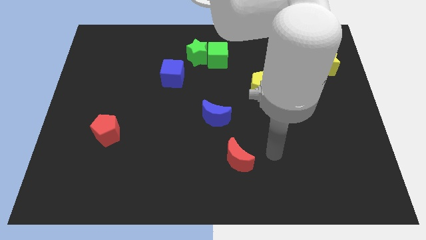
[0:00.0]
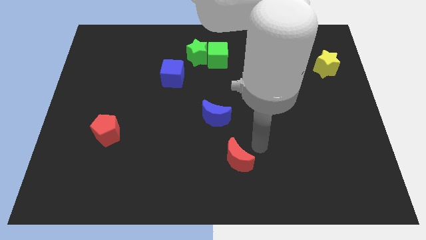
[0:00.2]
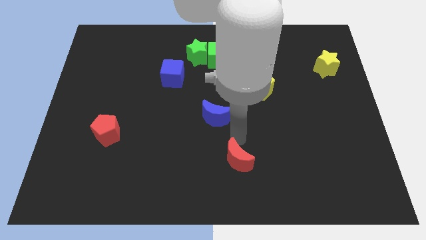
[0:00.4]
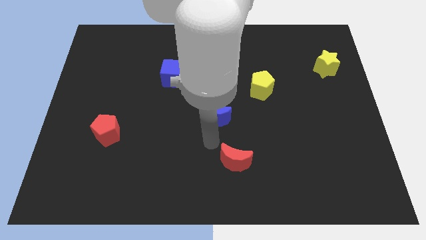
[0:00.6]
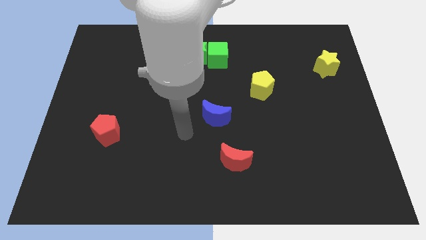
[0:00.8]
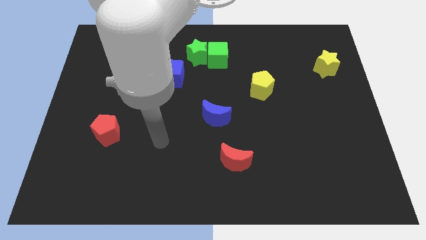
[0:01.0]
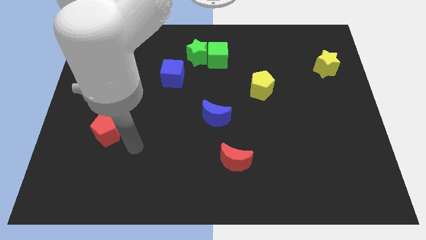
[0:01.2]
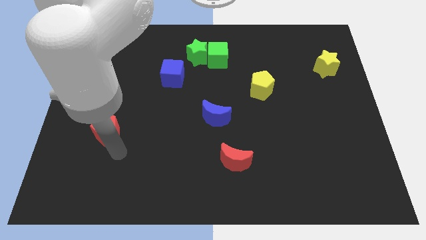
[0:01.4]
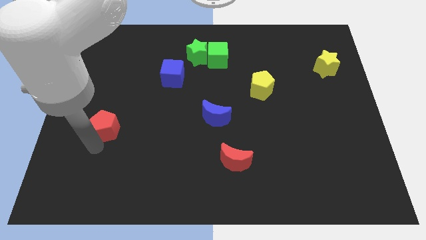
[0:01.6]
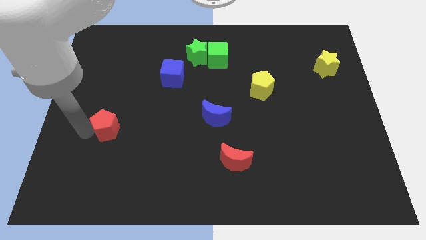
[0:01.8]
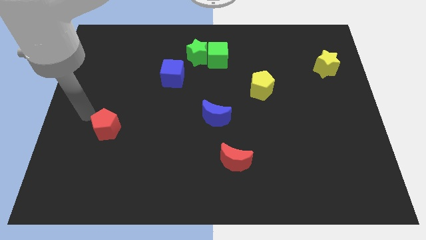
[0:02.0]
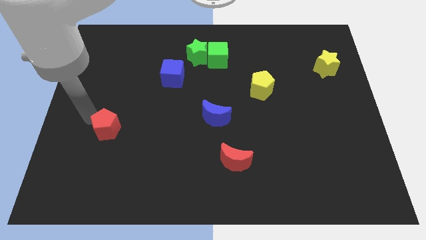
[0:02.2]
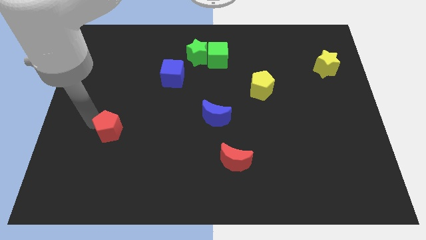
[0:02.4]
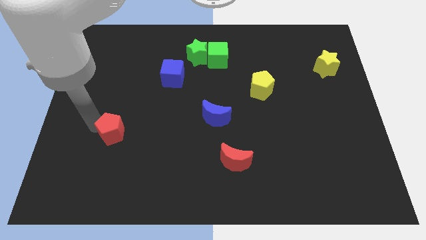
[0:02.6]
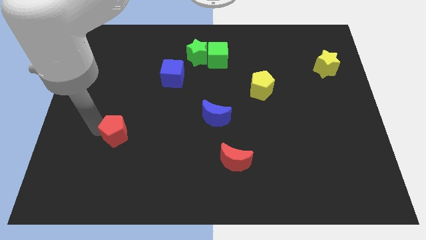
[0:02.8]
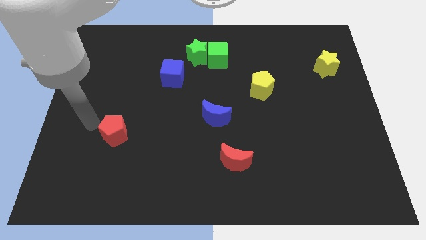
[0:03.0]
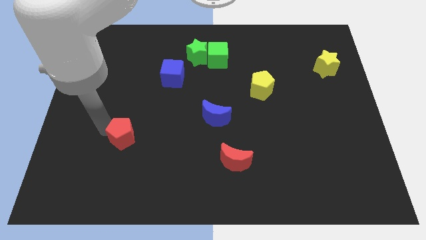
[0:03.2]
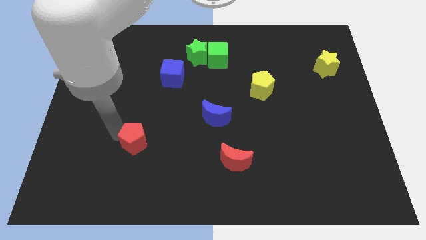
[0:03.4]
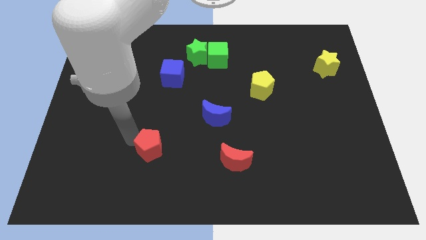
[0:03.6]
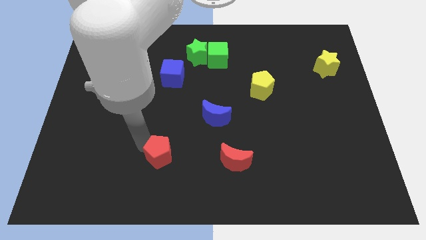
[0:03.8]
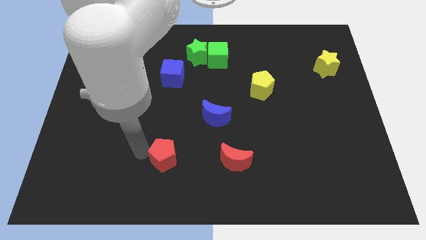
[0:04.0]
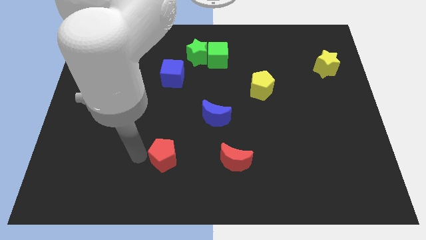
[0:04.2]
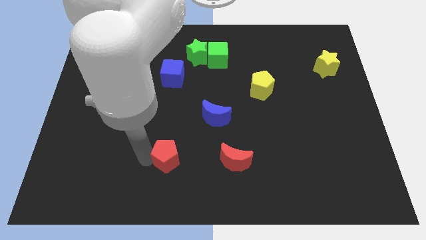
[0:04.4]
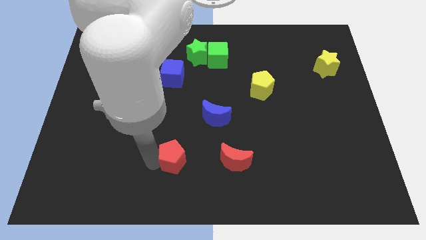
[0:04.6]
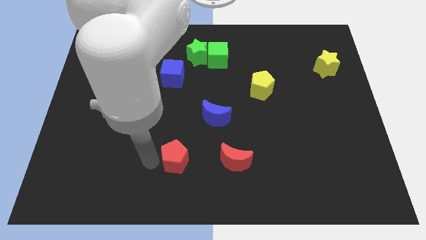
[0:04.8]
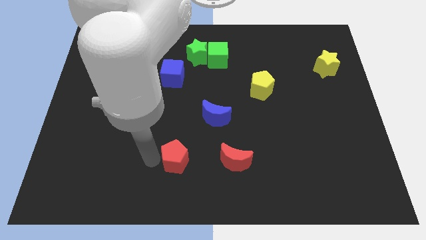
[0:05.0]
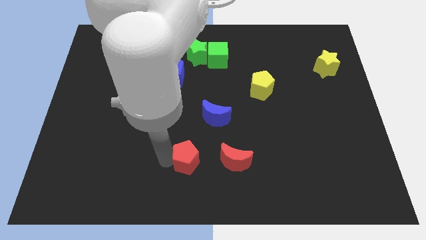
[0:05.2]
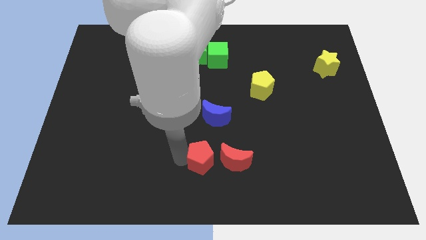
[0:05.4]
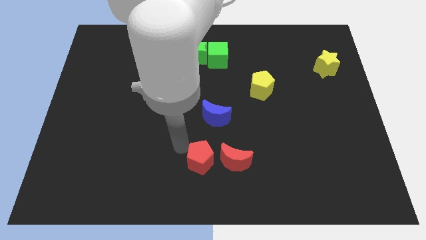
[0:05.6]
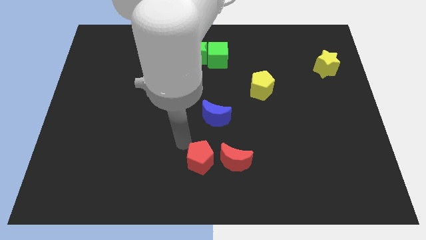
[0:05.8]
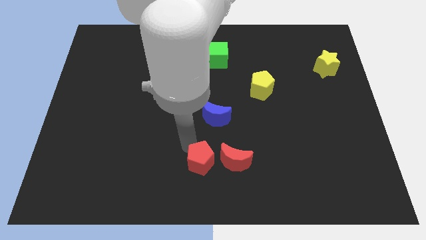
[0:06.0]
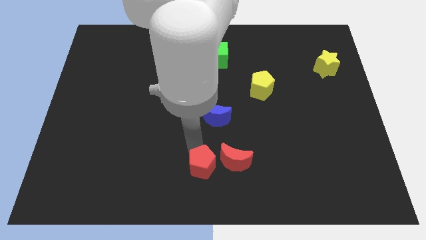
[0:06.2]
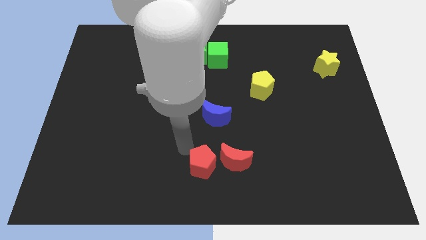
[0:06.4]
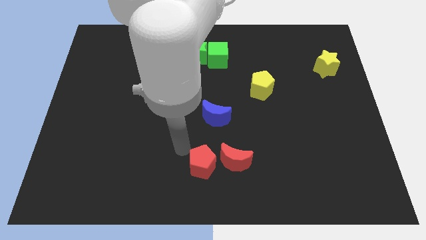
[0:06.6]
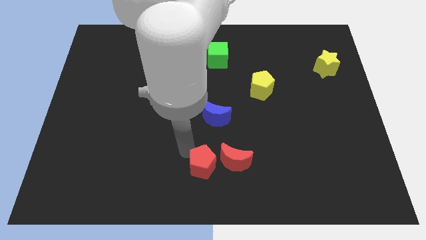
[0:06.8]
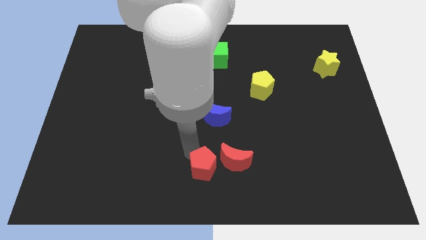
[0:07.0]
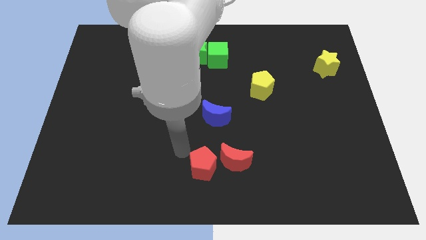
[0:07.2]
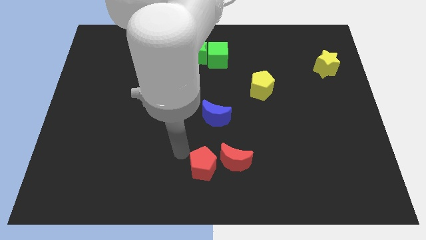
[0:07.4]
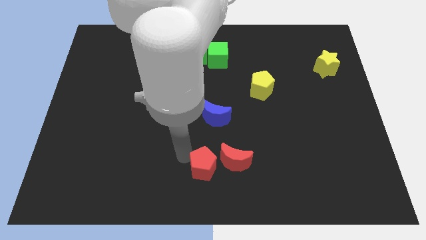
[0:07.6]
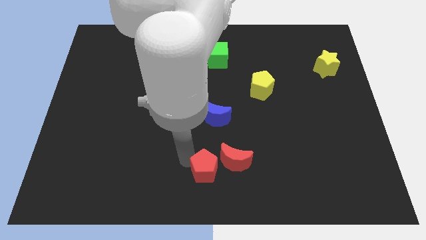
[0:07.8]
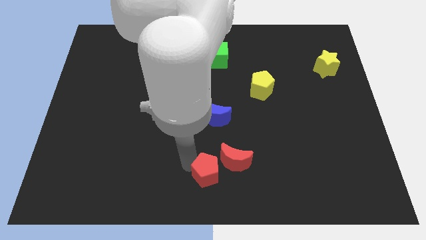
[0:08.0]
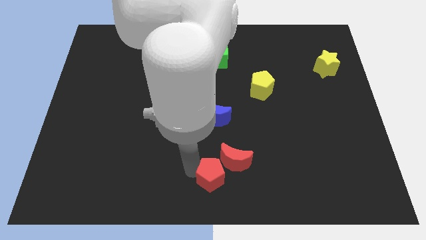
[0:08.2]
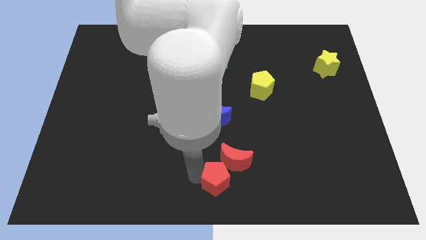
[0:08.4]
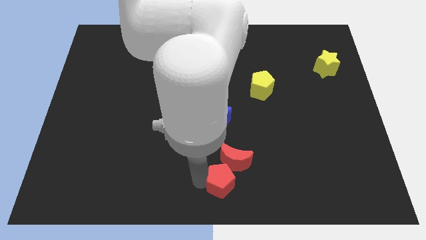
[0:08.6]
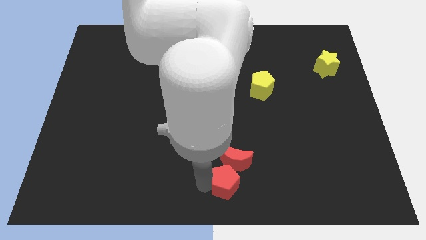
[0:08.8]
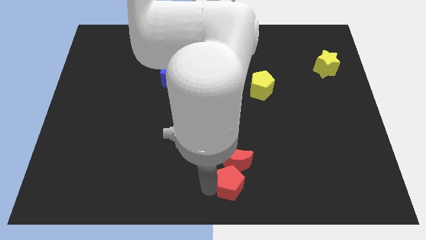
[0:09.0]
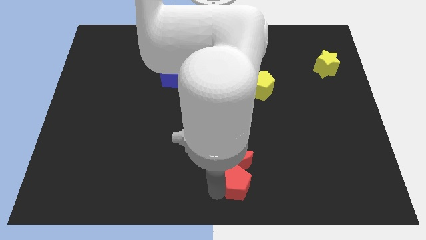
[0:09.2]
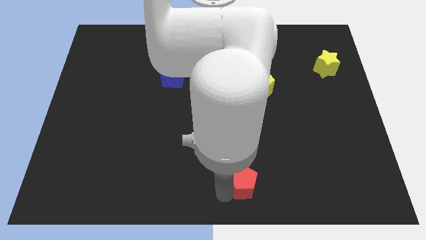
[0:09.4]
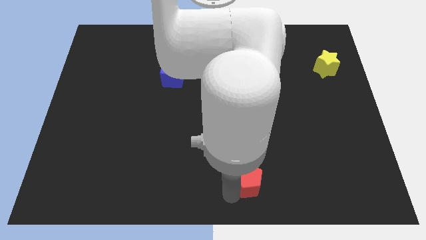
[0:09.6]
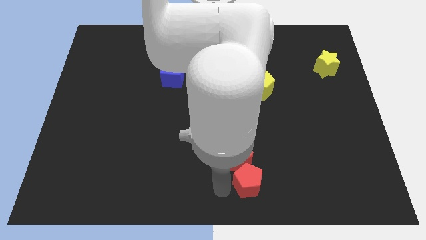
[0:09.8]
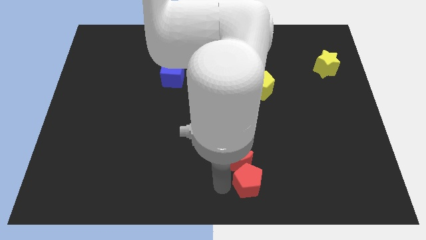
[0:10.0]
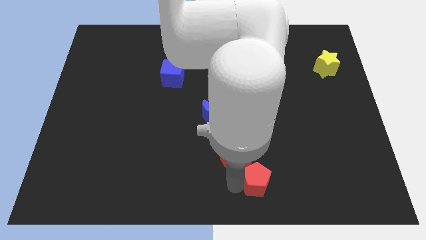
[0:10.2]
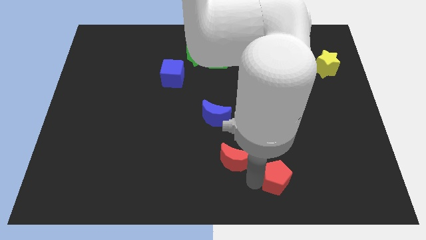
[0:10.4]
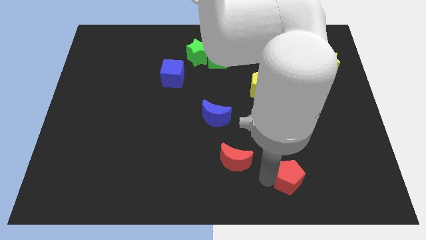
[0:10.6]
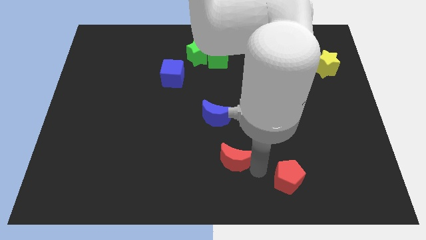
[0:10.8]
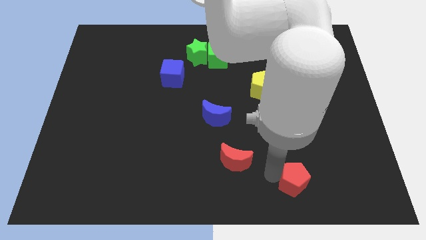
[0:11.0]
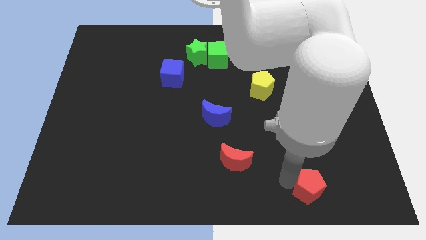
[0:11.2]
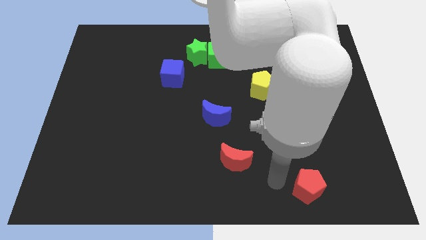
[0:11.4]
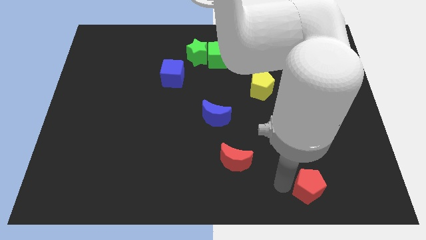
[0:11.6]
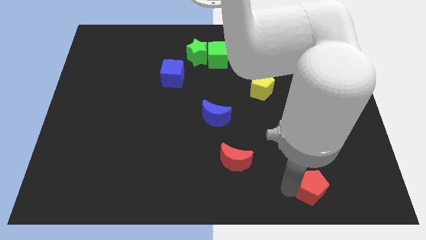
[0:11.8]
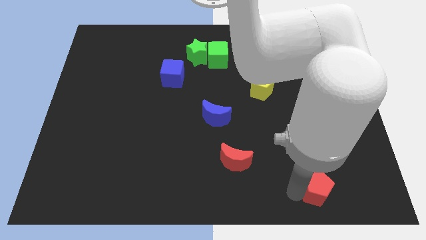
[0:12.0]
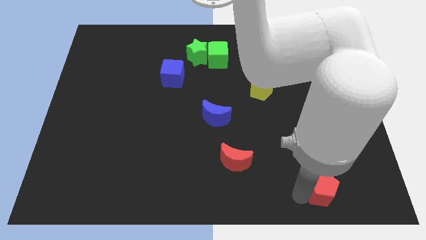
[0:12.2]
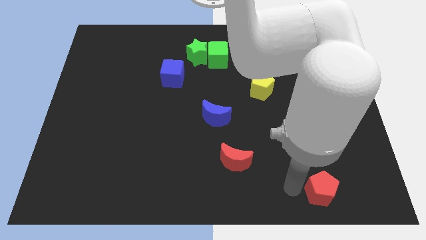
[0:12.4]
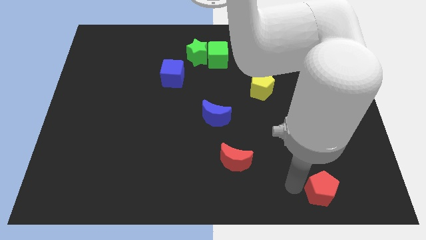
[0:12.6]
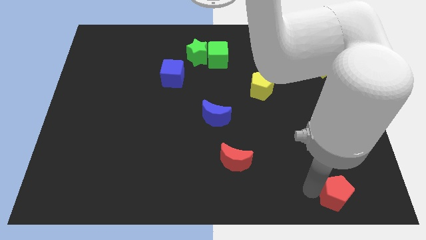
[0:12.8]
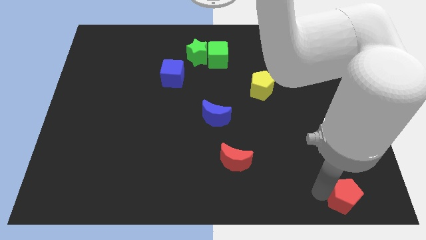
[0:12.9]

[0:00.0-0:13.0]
slide the red pentagon to the bottom right of the board

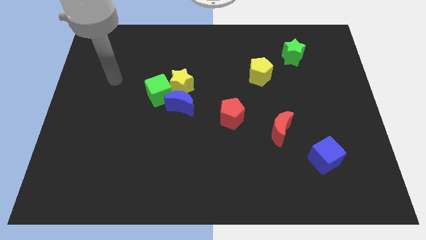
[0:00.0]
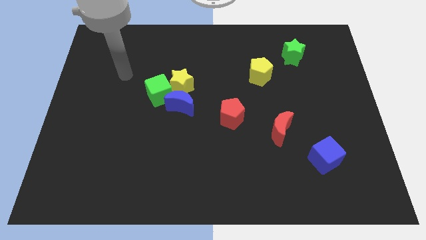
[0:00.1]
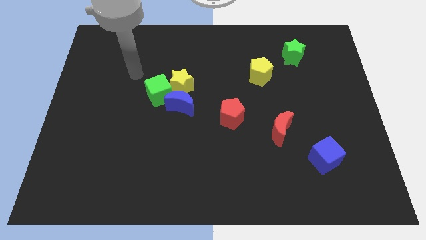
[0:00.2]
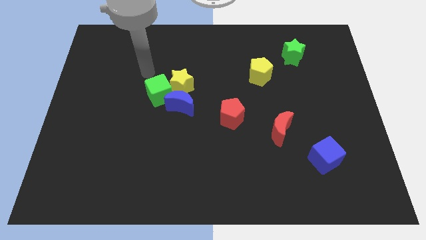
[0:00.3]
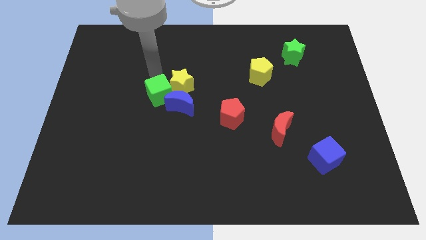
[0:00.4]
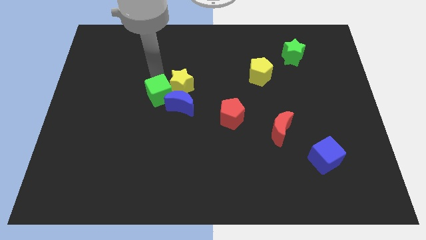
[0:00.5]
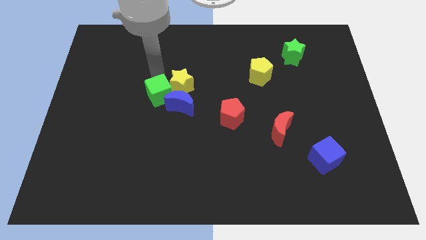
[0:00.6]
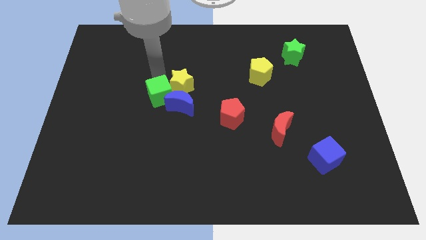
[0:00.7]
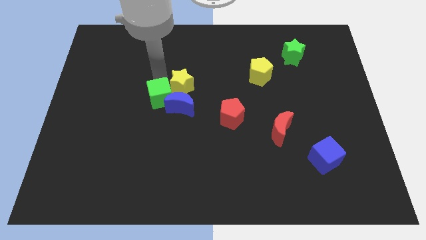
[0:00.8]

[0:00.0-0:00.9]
slide the green cube to the center
